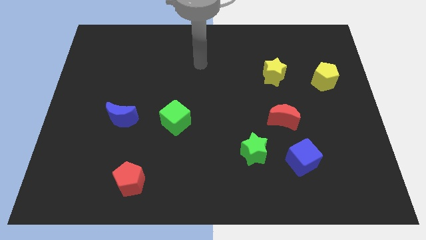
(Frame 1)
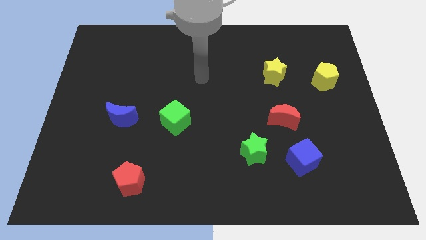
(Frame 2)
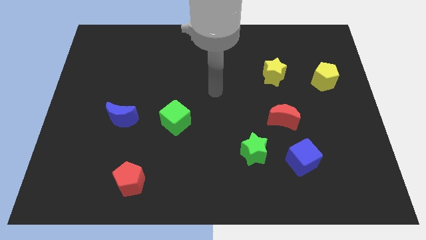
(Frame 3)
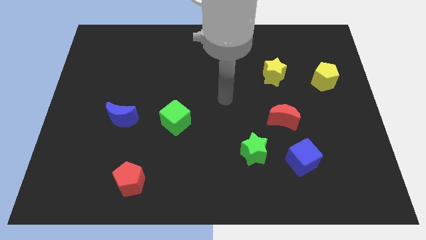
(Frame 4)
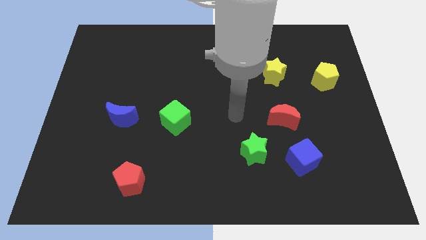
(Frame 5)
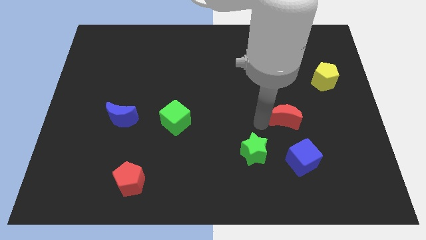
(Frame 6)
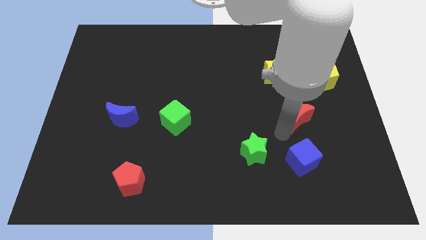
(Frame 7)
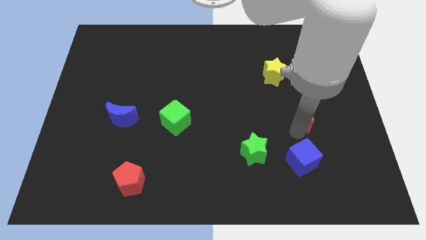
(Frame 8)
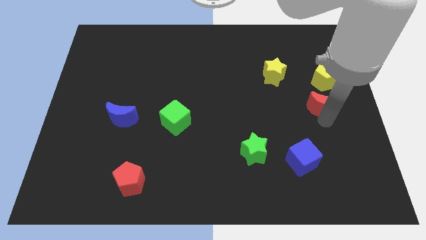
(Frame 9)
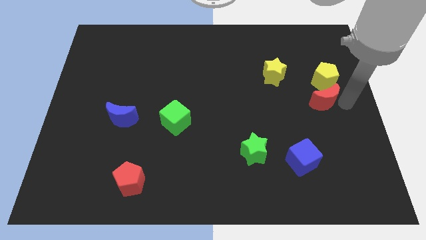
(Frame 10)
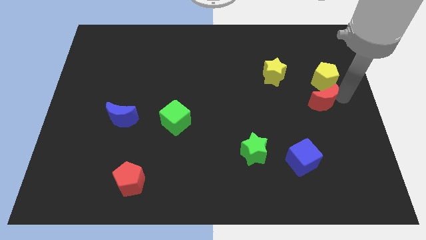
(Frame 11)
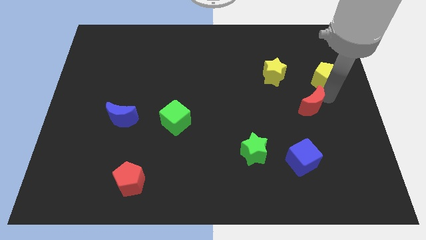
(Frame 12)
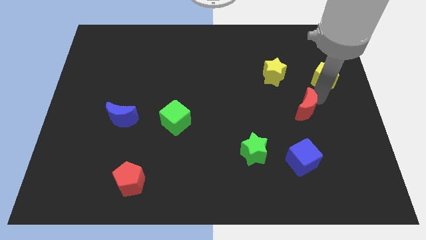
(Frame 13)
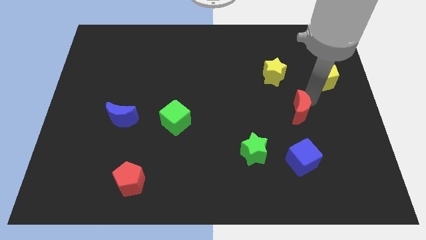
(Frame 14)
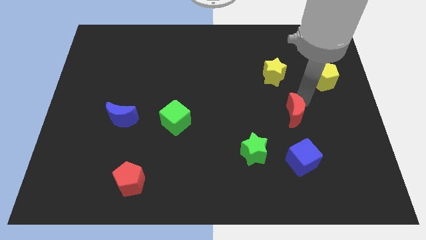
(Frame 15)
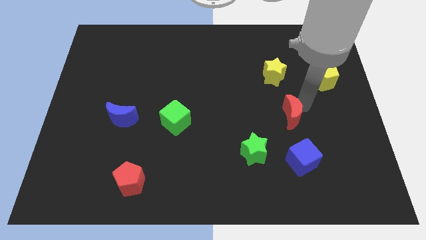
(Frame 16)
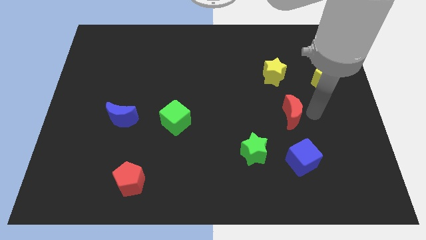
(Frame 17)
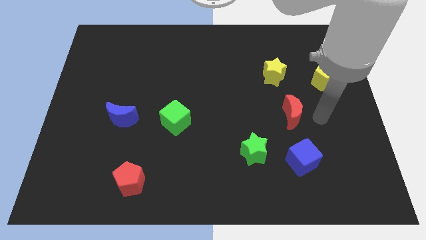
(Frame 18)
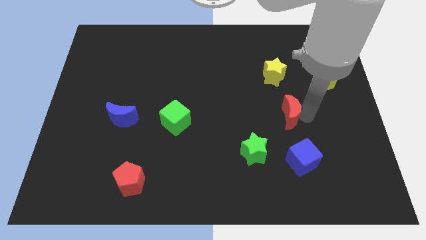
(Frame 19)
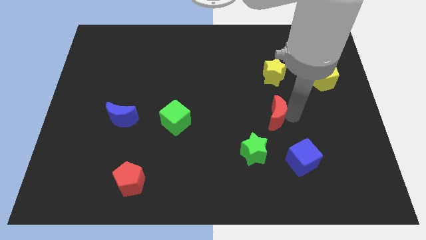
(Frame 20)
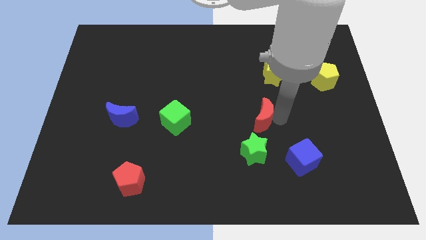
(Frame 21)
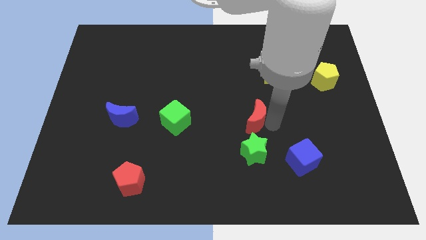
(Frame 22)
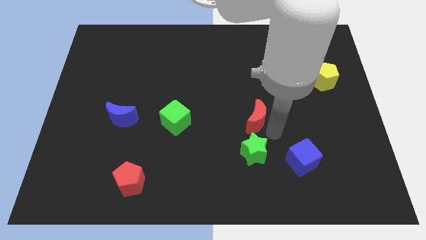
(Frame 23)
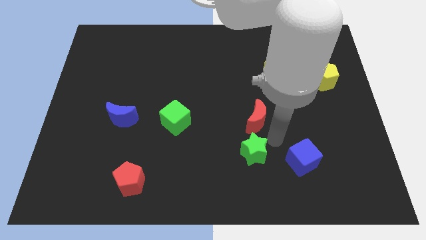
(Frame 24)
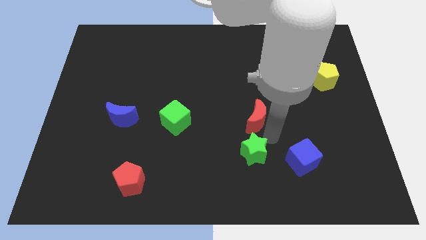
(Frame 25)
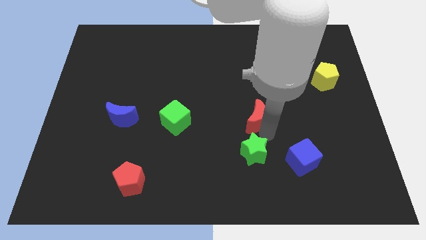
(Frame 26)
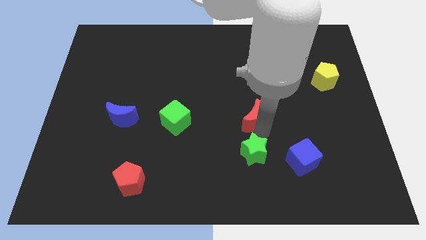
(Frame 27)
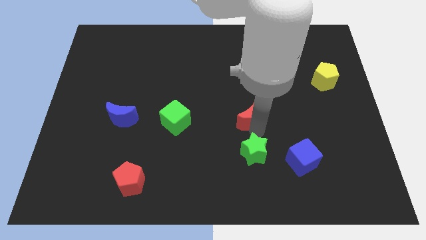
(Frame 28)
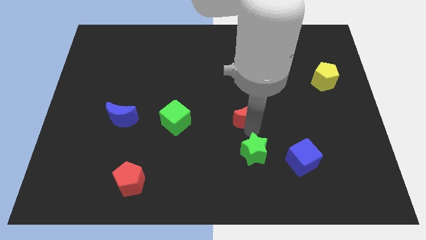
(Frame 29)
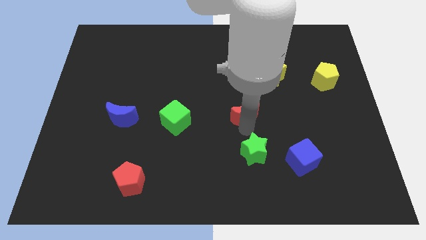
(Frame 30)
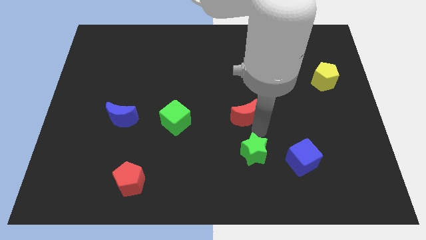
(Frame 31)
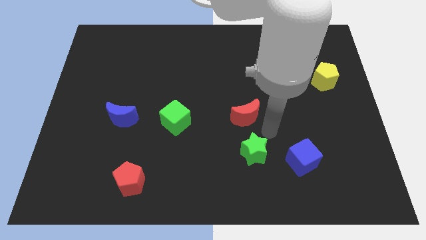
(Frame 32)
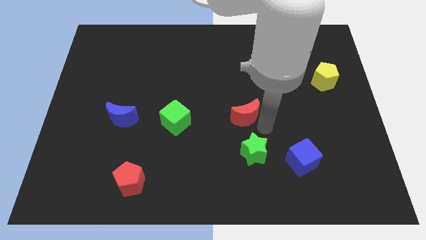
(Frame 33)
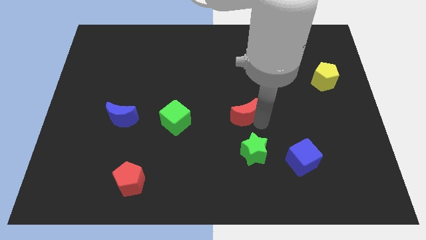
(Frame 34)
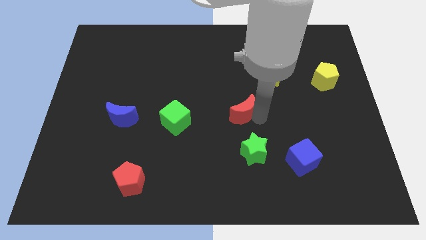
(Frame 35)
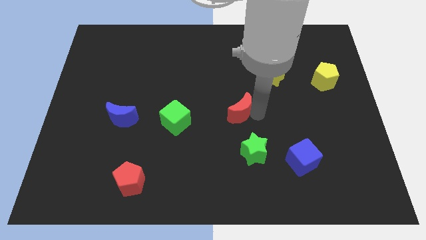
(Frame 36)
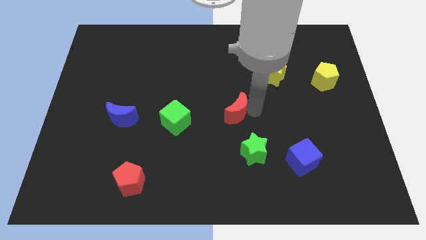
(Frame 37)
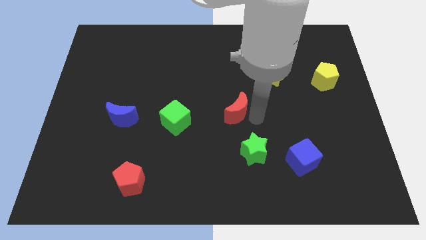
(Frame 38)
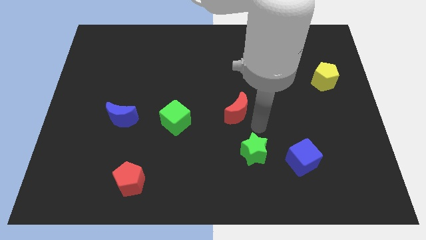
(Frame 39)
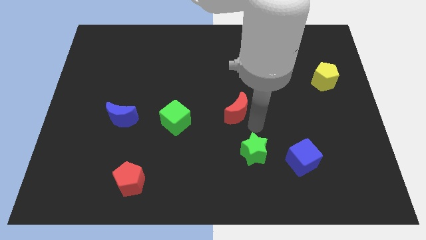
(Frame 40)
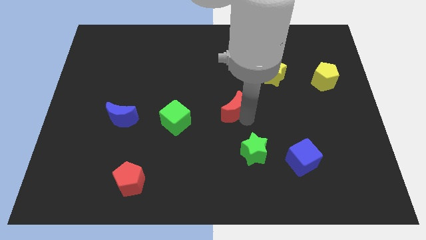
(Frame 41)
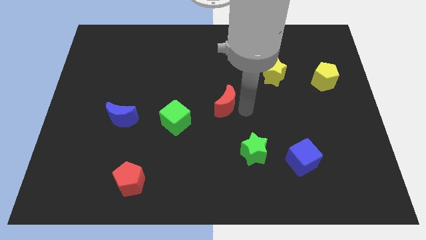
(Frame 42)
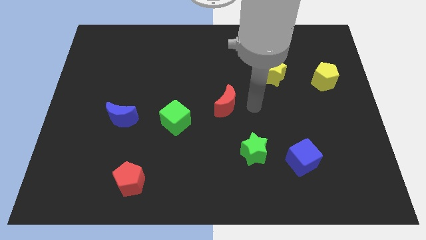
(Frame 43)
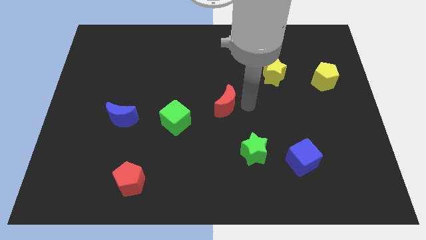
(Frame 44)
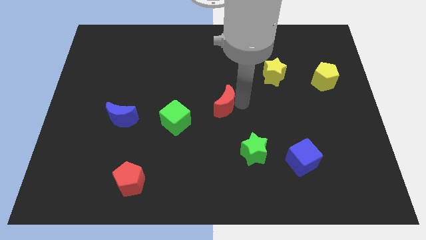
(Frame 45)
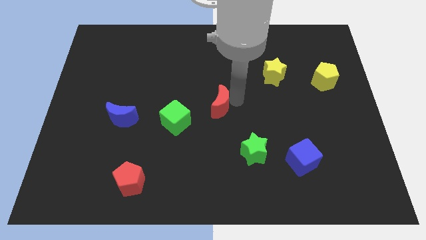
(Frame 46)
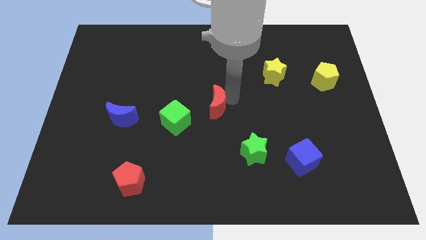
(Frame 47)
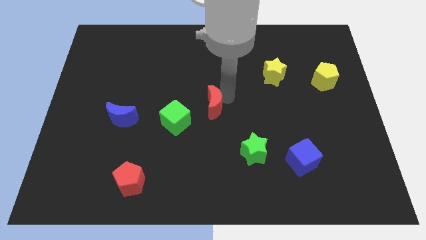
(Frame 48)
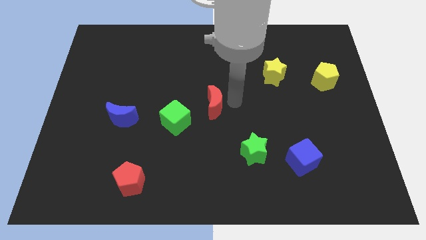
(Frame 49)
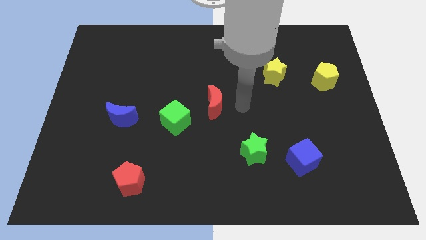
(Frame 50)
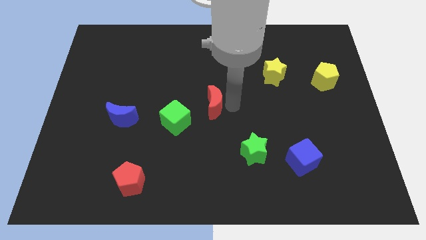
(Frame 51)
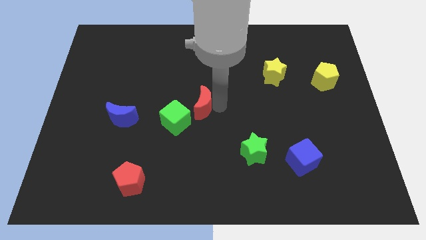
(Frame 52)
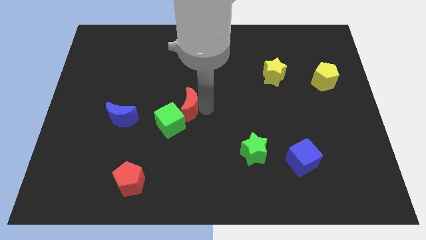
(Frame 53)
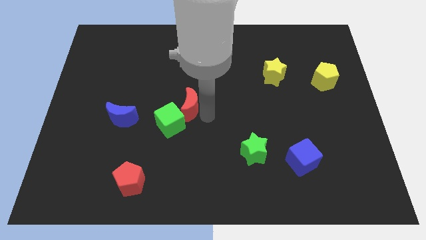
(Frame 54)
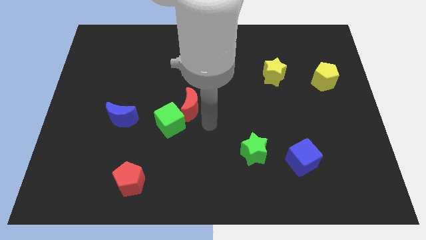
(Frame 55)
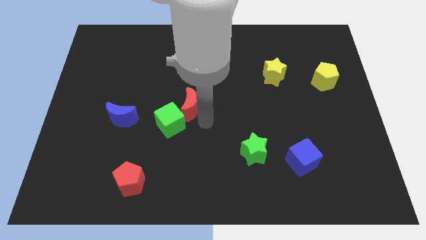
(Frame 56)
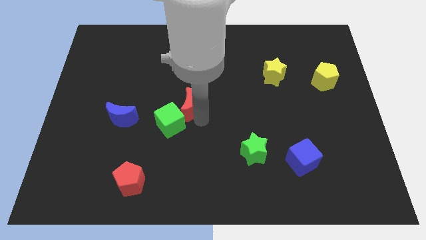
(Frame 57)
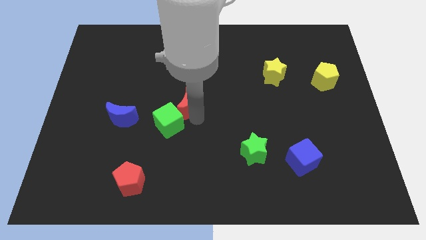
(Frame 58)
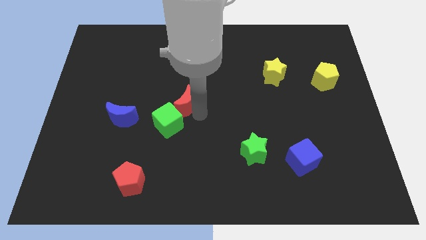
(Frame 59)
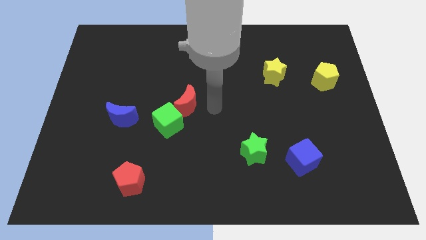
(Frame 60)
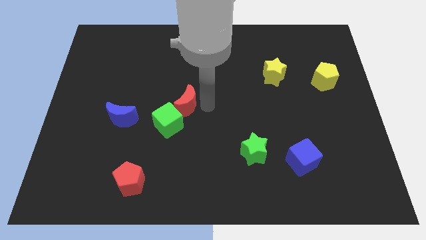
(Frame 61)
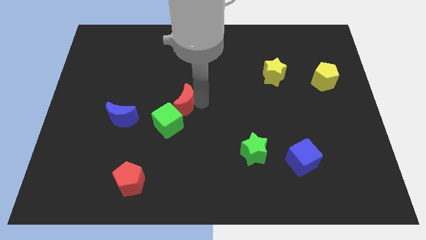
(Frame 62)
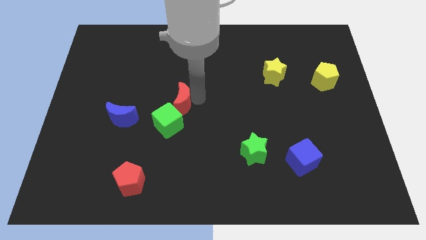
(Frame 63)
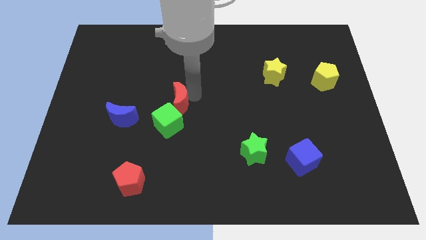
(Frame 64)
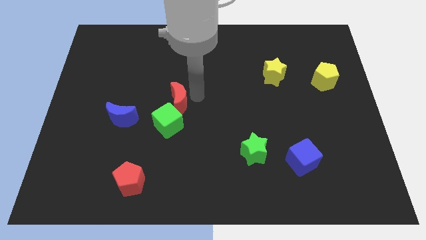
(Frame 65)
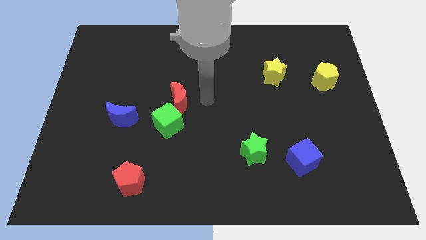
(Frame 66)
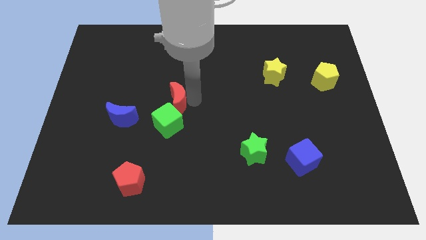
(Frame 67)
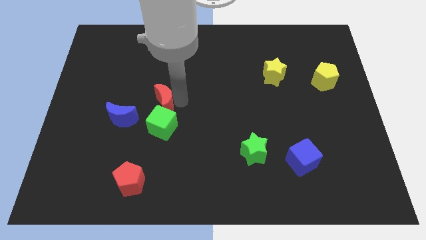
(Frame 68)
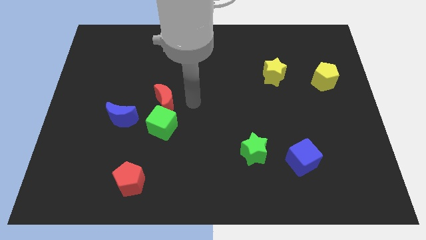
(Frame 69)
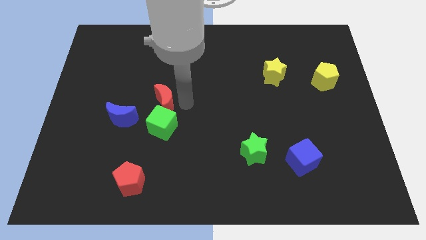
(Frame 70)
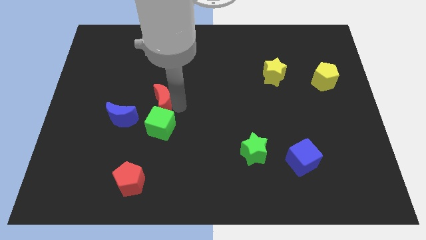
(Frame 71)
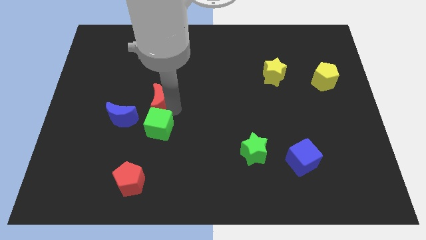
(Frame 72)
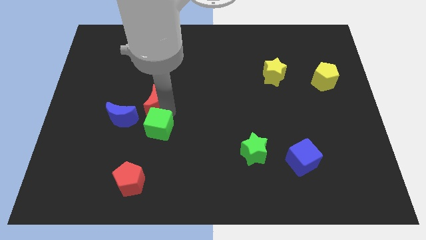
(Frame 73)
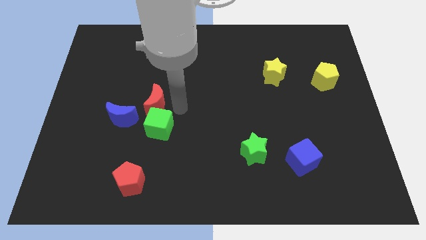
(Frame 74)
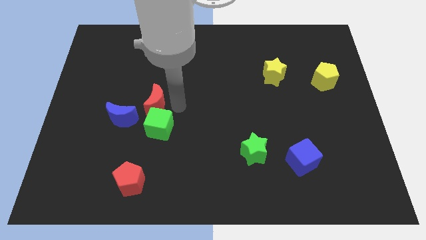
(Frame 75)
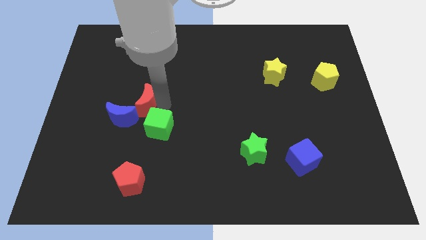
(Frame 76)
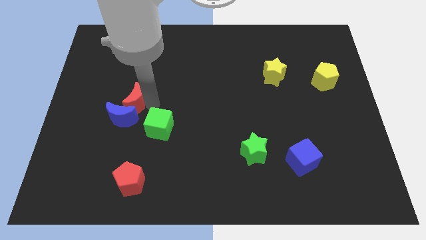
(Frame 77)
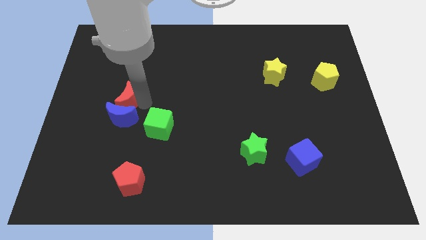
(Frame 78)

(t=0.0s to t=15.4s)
push the red moon to the top left side of the blue moon

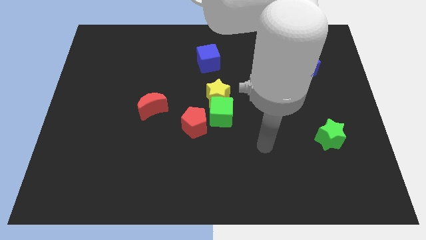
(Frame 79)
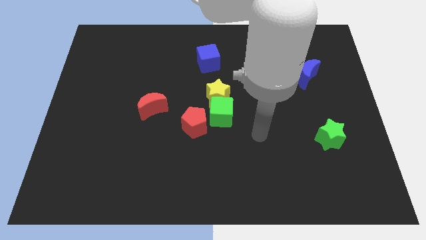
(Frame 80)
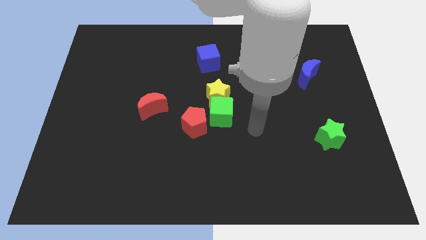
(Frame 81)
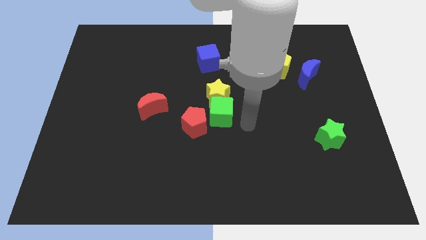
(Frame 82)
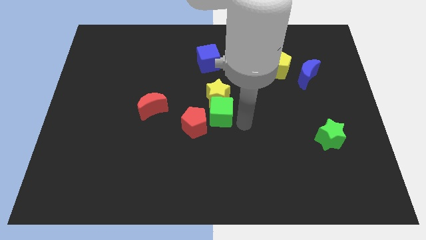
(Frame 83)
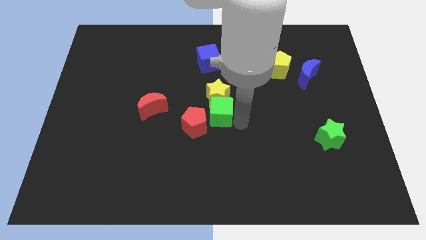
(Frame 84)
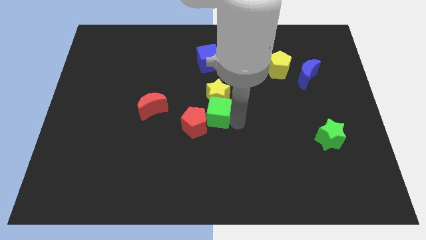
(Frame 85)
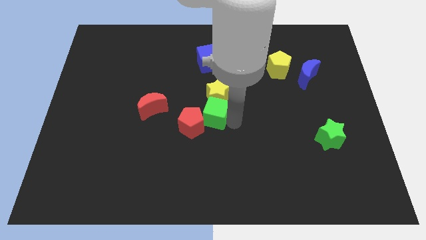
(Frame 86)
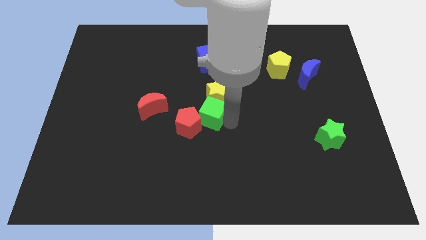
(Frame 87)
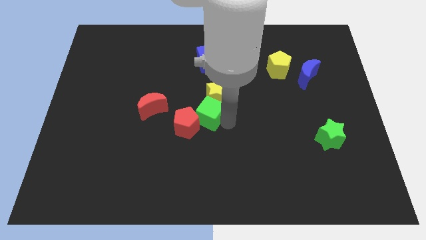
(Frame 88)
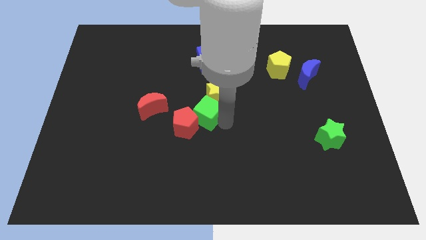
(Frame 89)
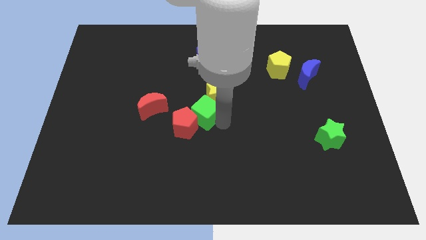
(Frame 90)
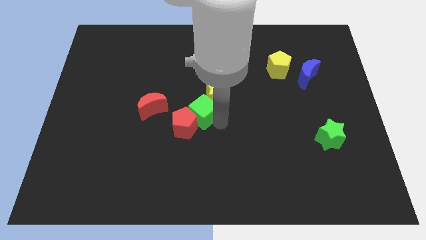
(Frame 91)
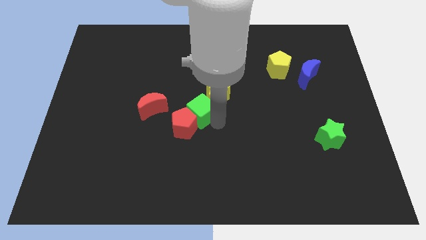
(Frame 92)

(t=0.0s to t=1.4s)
slide the green cube to the left of the yellow star
